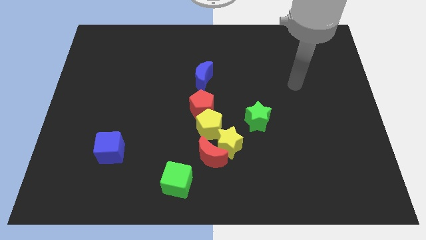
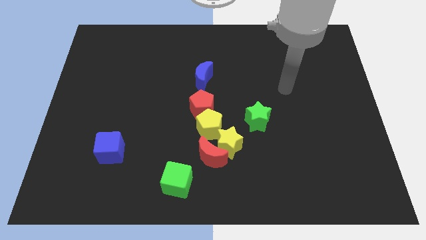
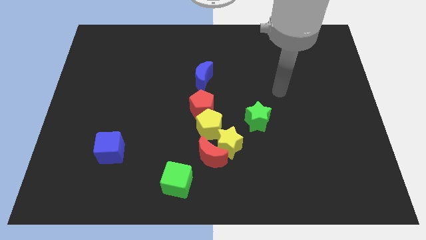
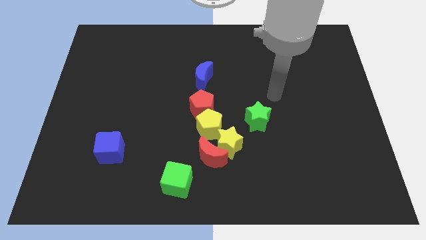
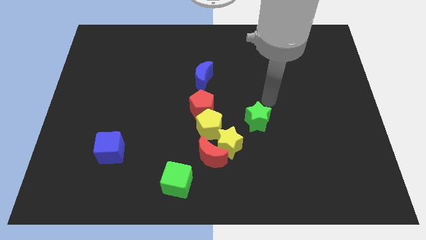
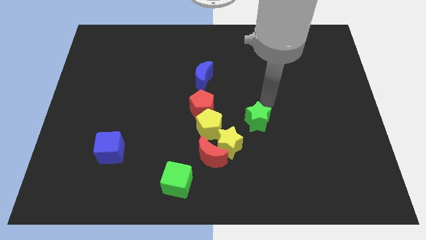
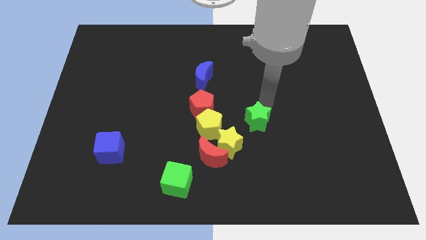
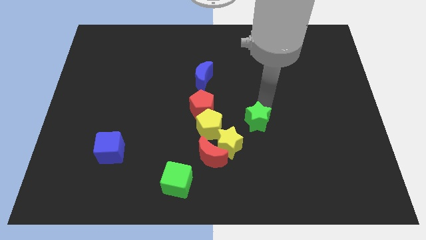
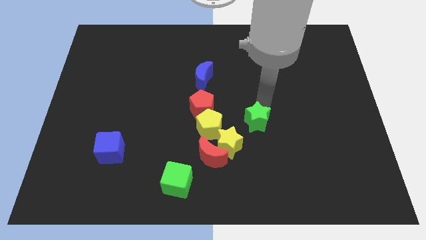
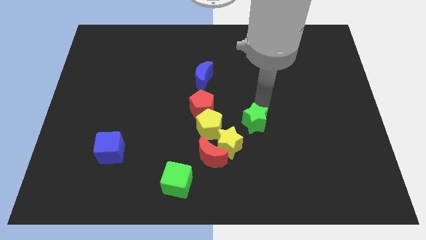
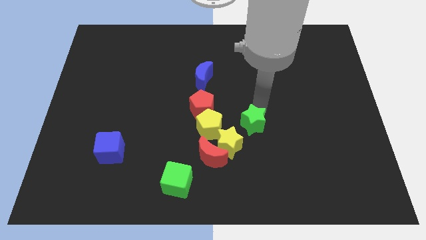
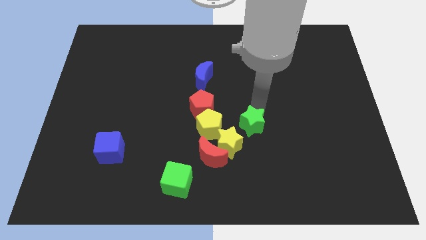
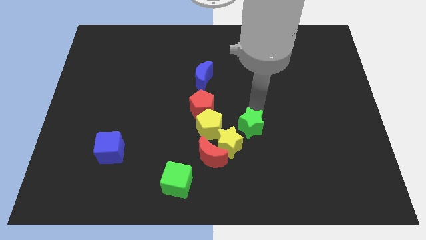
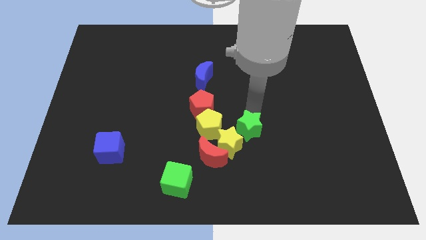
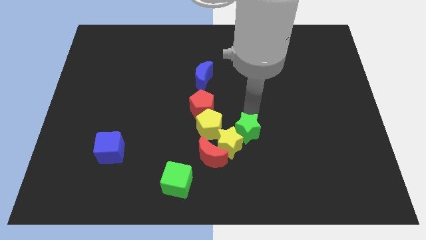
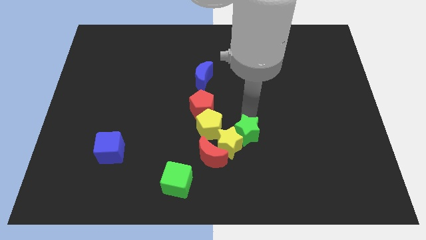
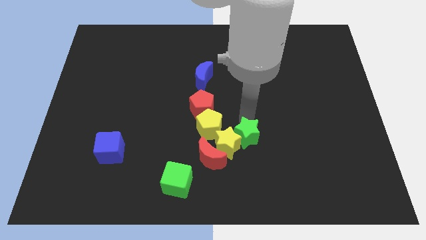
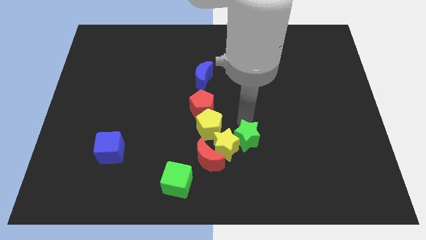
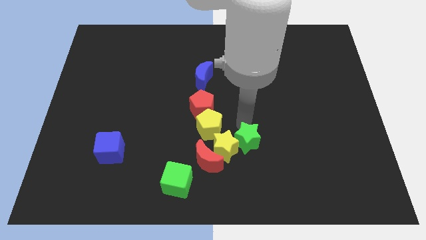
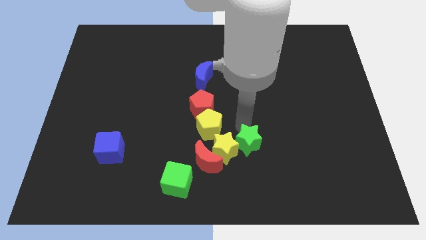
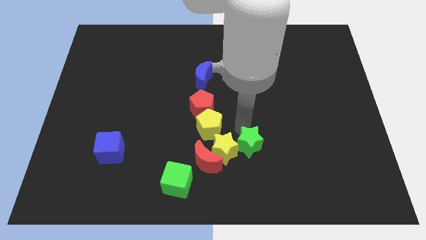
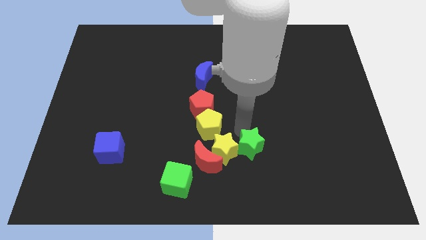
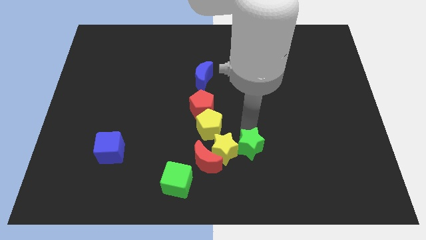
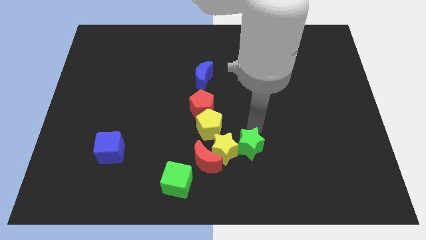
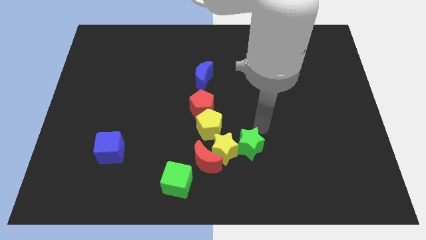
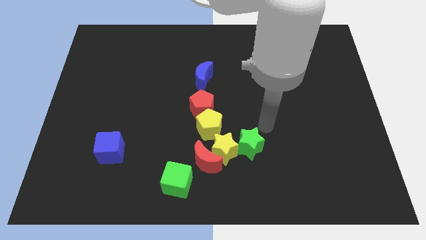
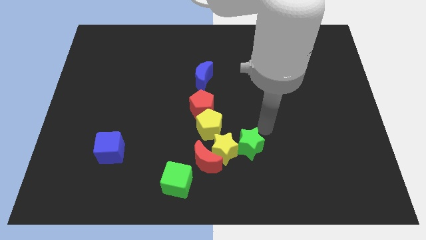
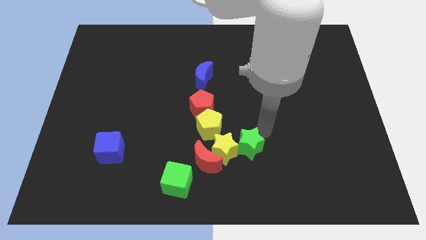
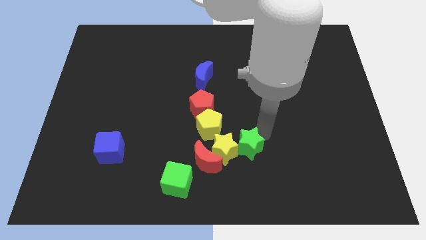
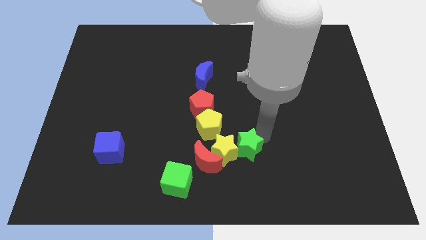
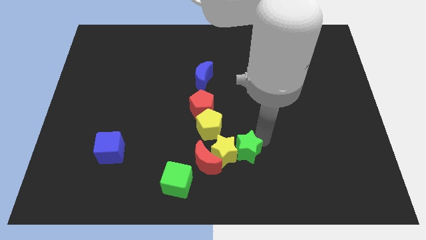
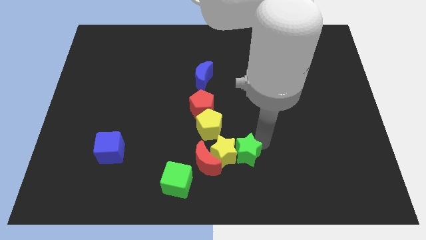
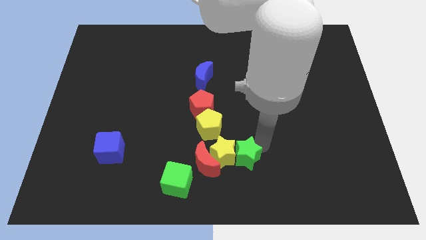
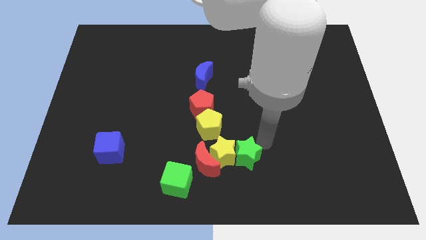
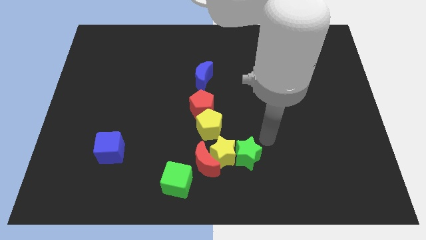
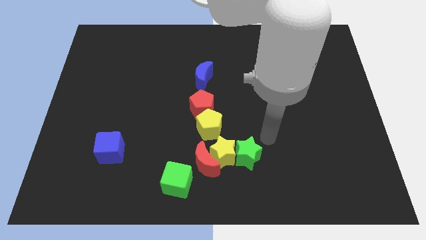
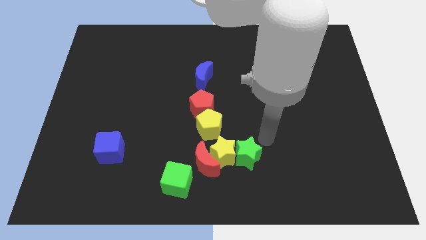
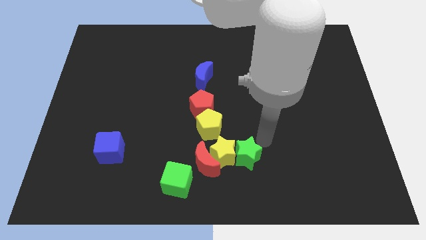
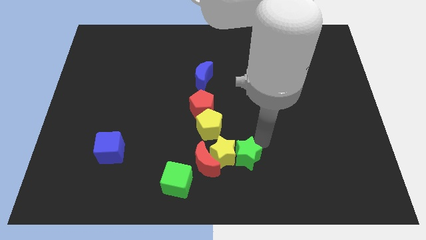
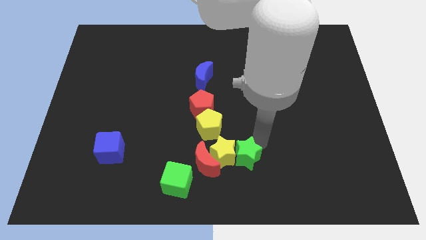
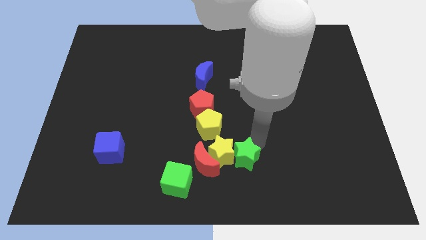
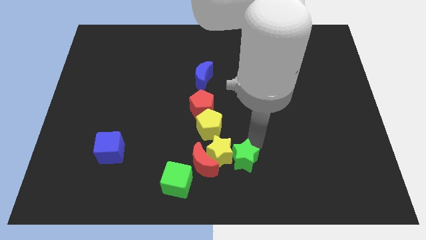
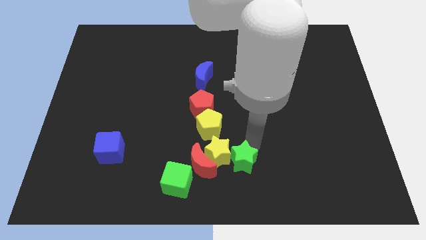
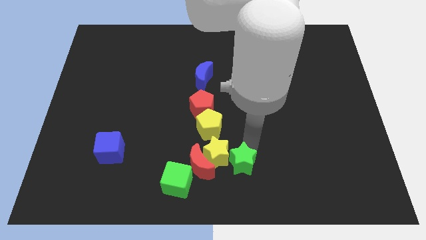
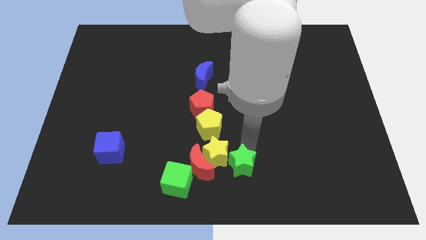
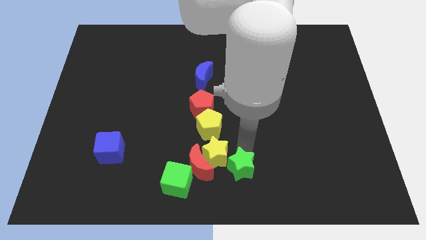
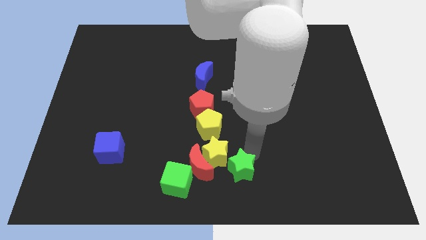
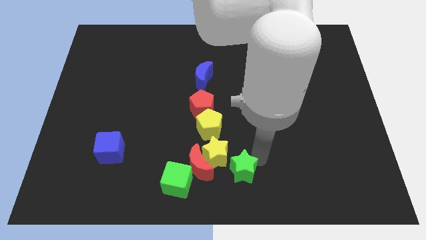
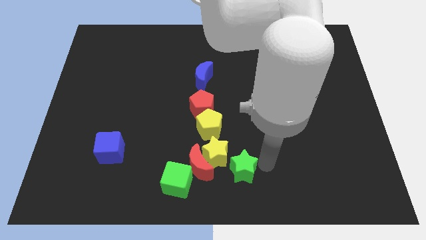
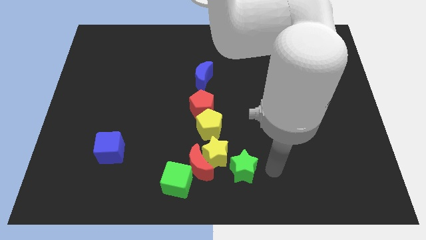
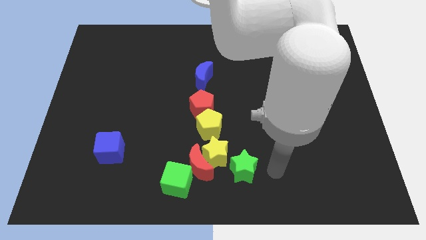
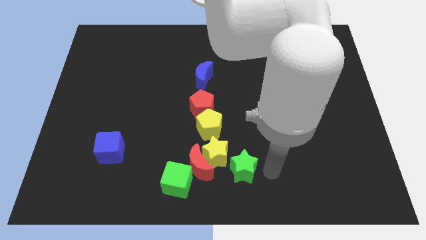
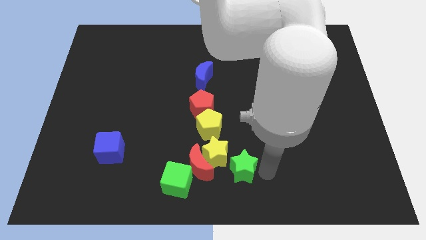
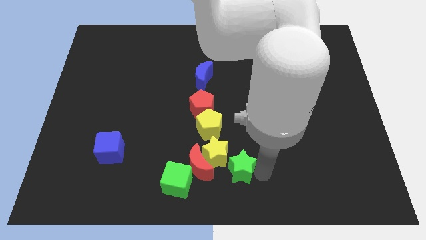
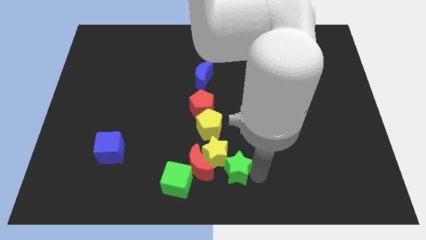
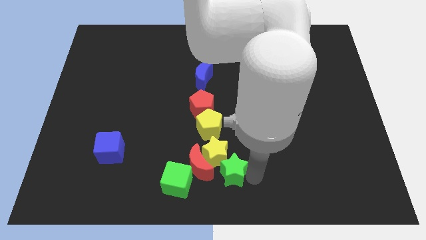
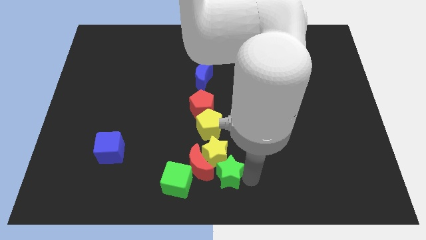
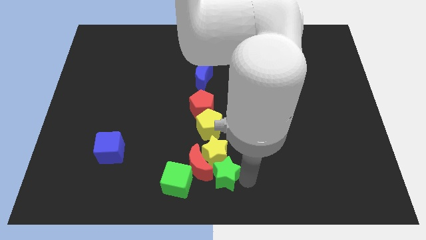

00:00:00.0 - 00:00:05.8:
put the green star towards the red moon

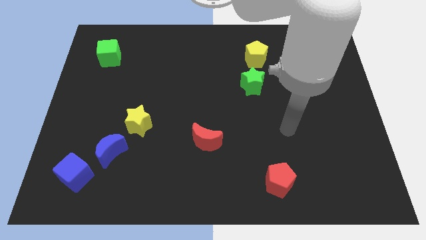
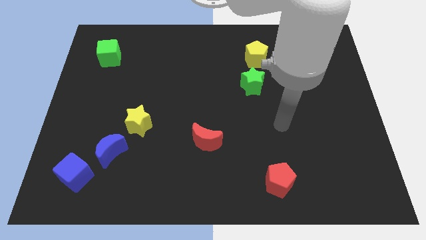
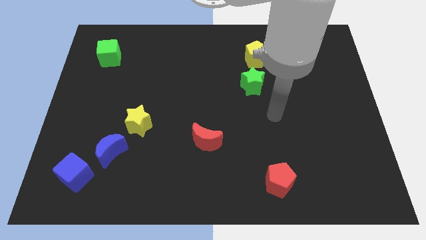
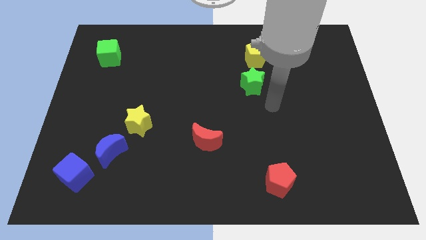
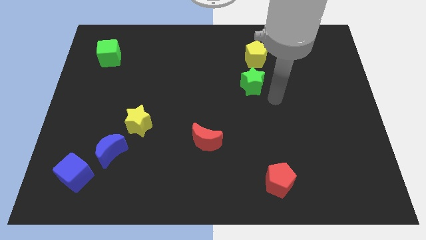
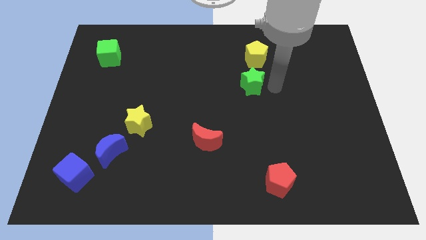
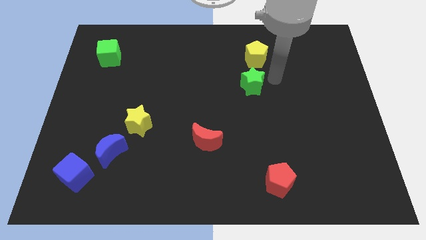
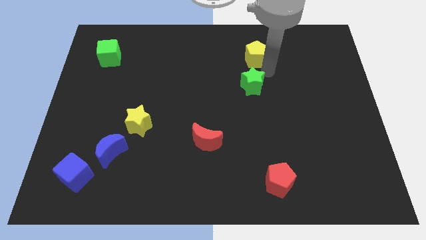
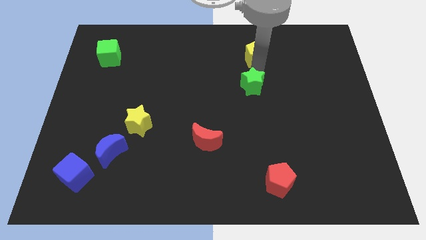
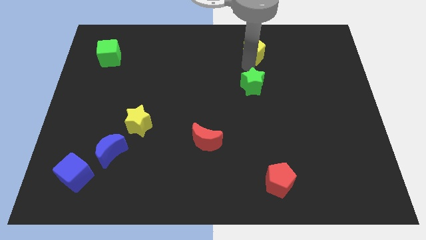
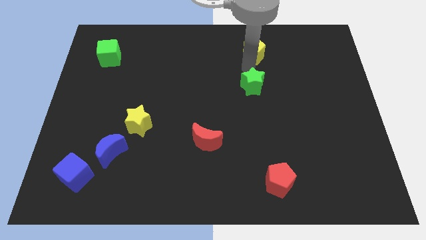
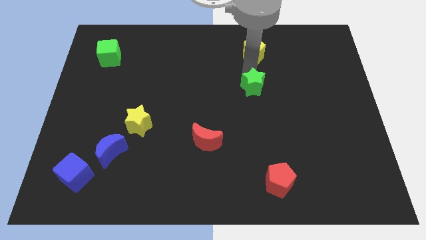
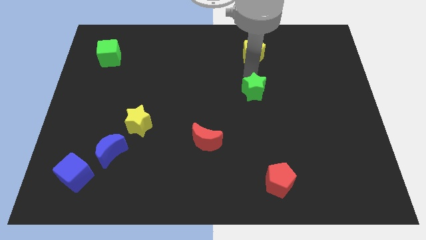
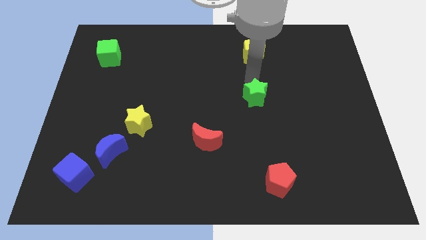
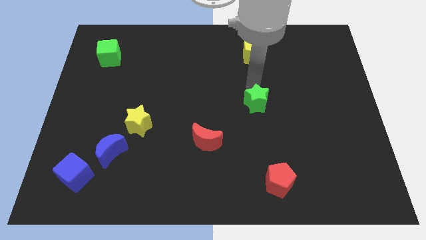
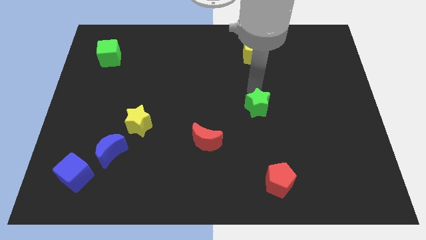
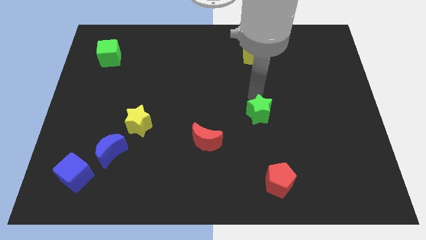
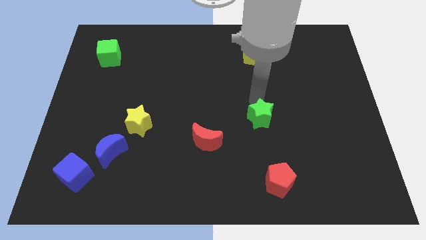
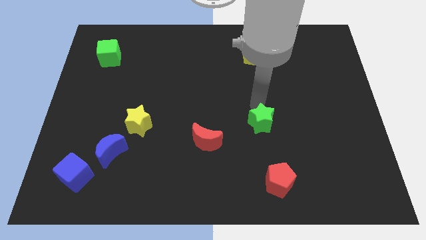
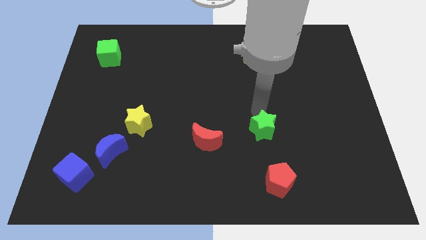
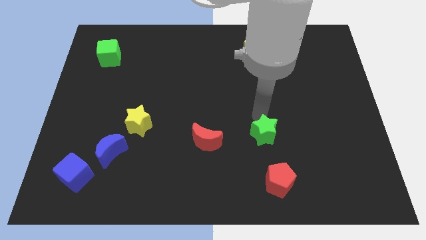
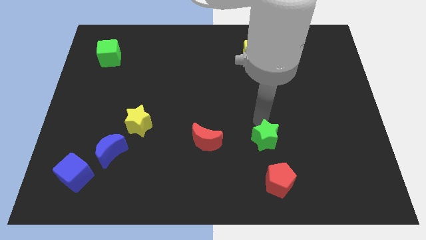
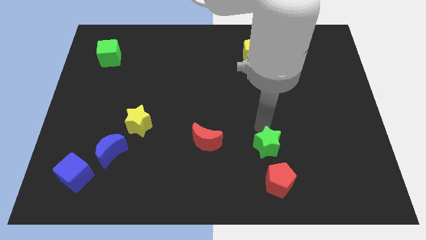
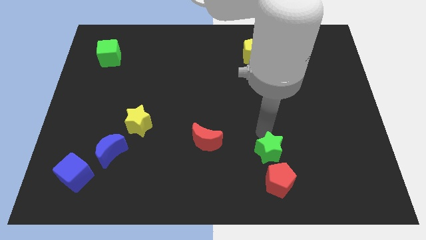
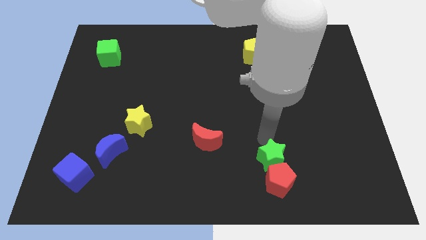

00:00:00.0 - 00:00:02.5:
move the green star close to the red pentagon
